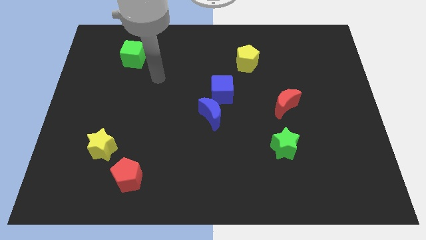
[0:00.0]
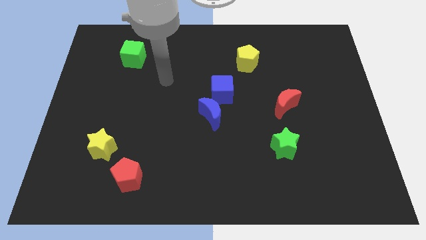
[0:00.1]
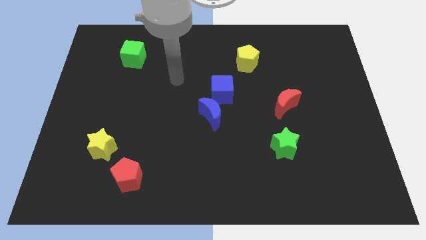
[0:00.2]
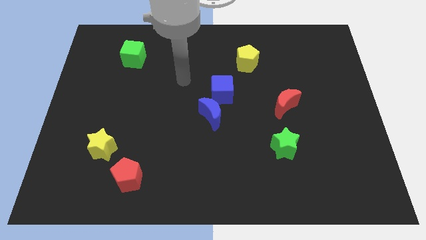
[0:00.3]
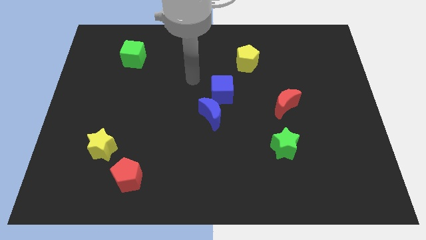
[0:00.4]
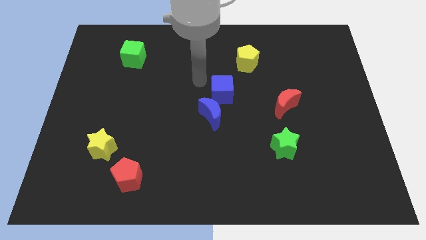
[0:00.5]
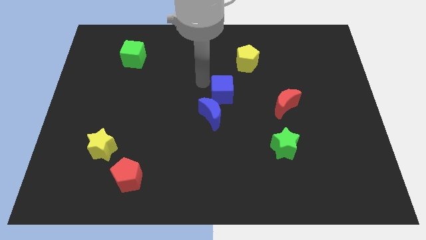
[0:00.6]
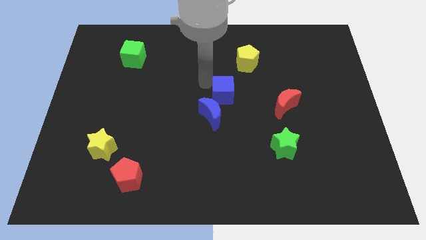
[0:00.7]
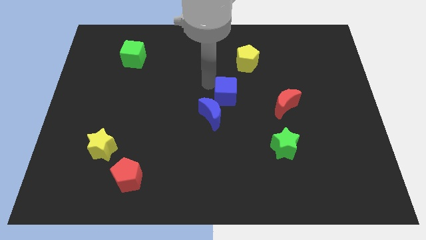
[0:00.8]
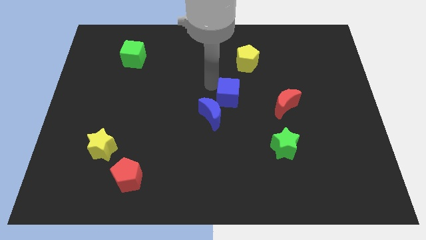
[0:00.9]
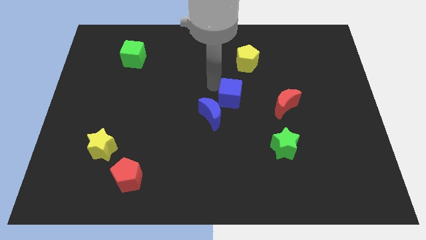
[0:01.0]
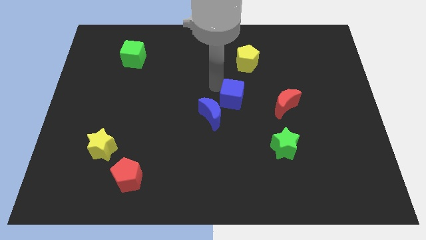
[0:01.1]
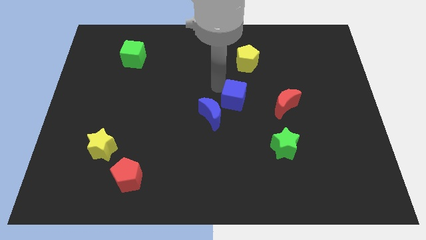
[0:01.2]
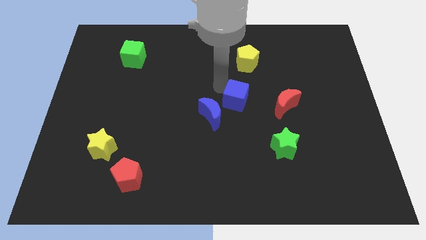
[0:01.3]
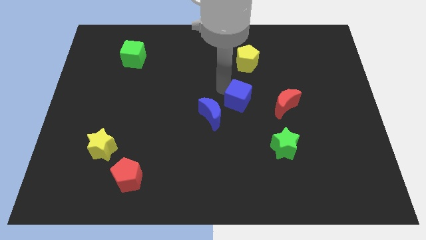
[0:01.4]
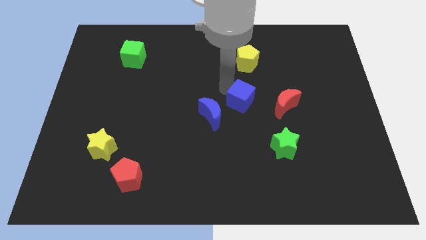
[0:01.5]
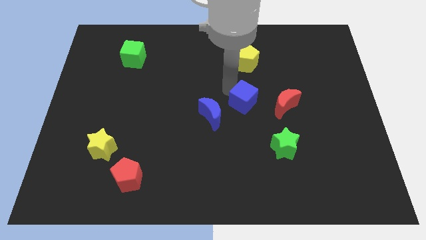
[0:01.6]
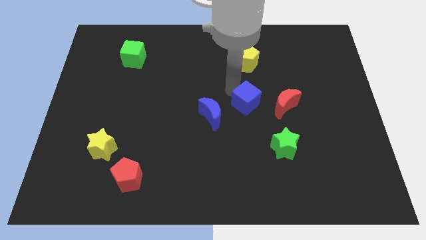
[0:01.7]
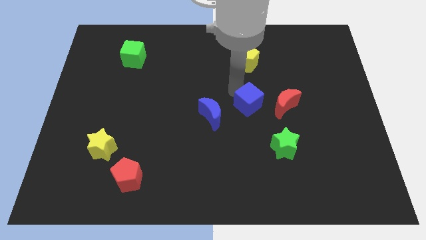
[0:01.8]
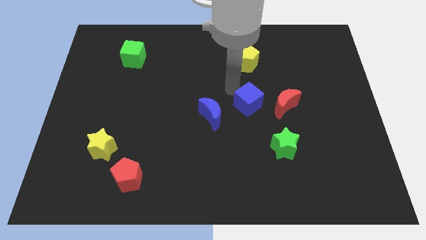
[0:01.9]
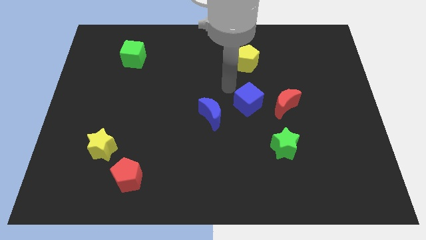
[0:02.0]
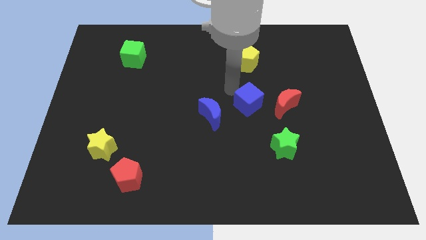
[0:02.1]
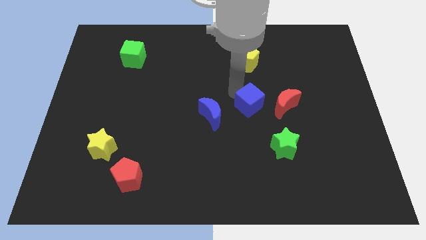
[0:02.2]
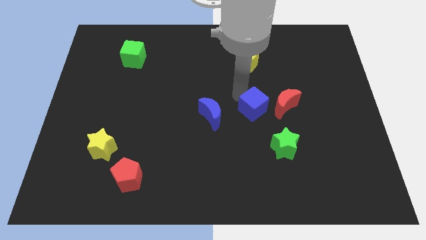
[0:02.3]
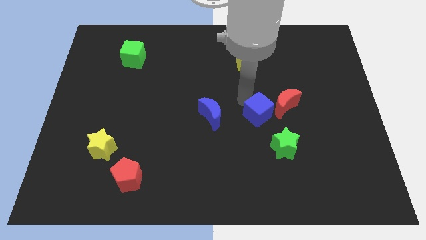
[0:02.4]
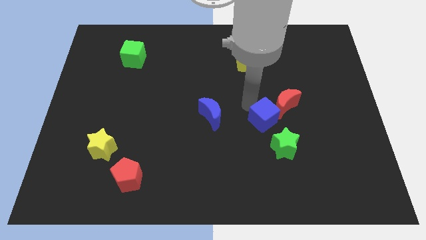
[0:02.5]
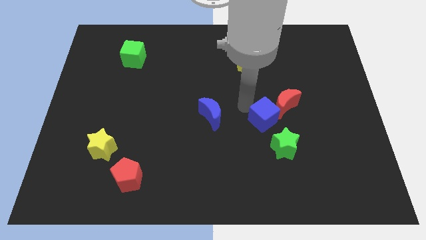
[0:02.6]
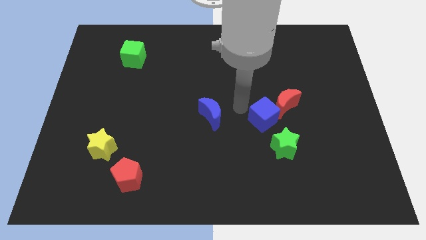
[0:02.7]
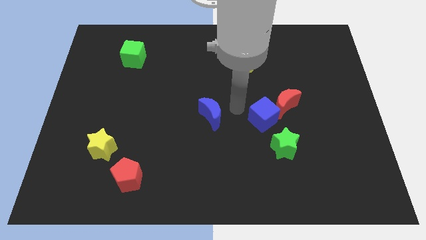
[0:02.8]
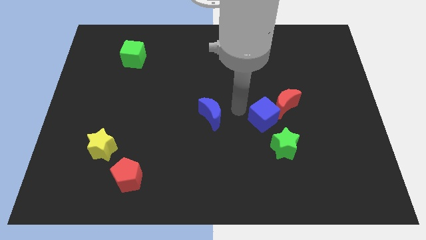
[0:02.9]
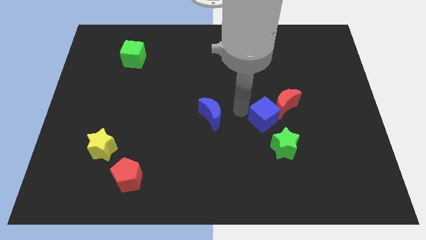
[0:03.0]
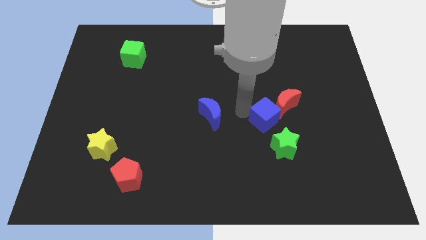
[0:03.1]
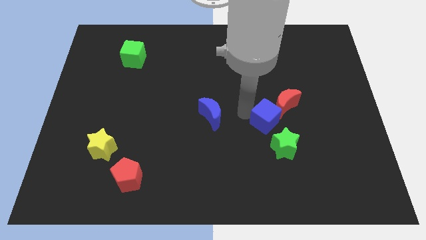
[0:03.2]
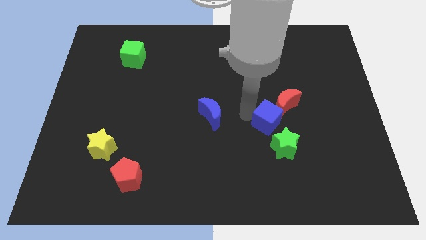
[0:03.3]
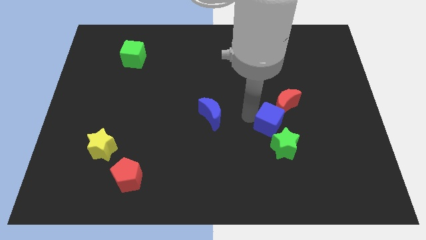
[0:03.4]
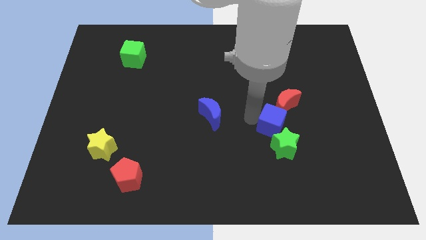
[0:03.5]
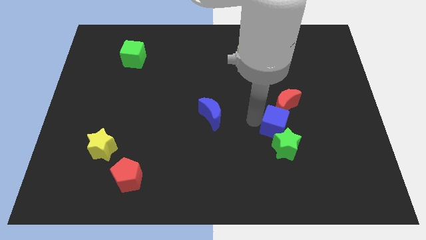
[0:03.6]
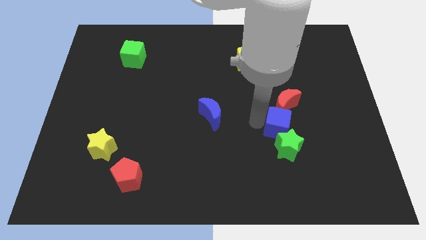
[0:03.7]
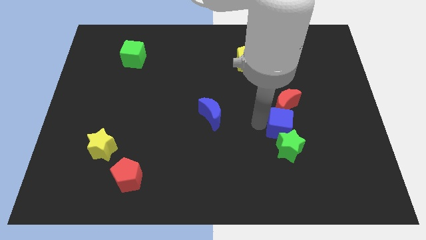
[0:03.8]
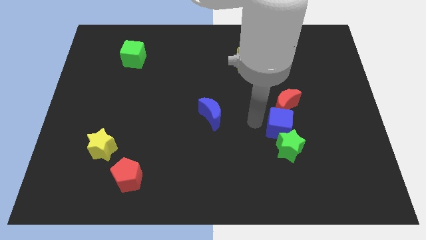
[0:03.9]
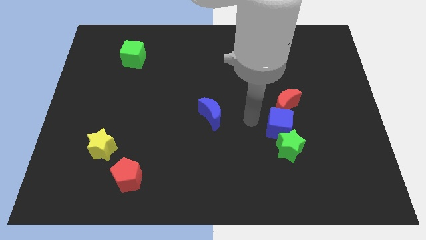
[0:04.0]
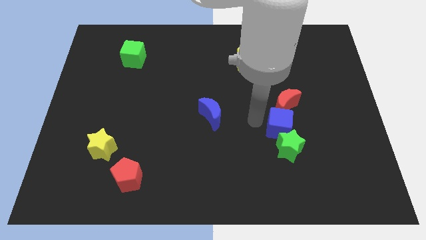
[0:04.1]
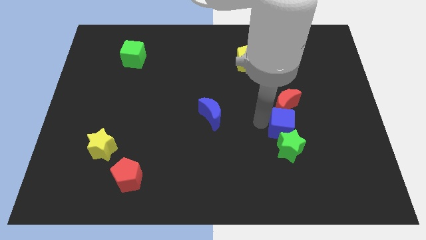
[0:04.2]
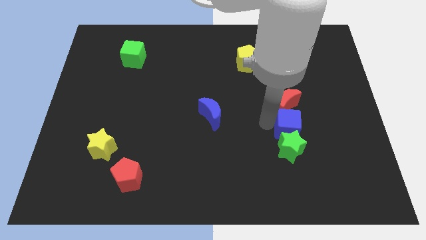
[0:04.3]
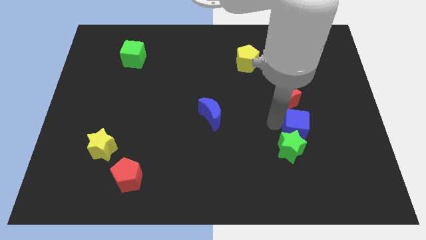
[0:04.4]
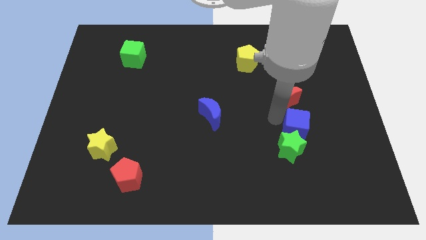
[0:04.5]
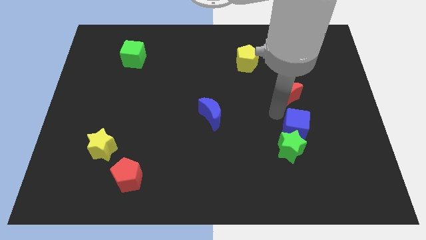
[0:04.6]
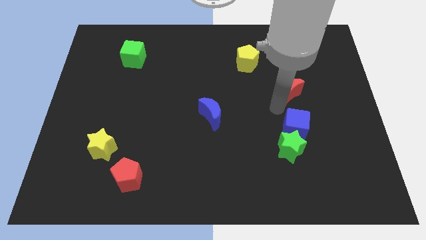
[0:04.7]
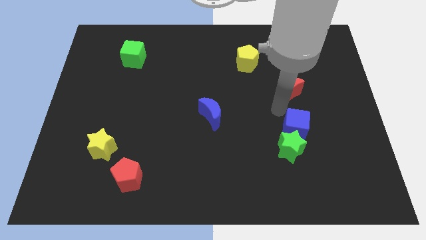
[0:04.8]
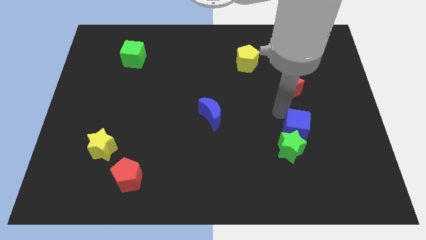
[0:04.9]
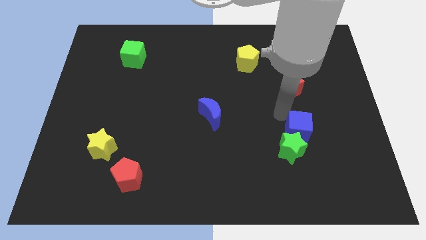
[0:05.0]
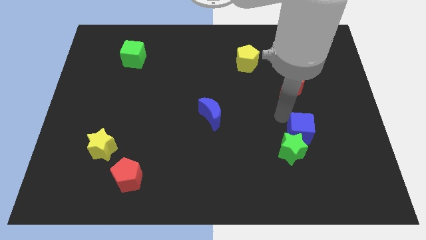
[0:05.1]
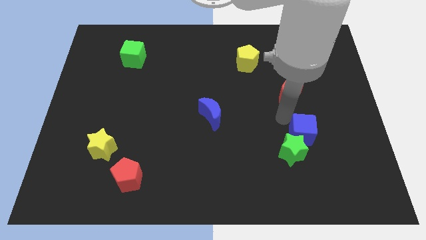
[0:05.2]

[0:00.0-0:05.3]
slide the blue cube downwards and then to the right

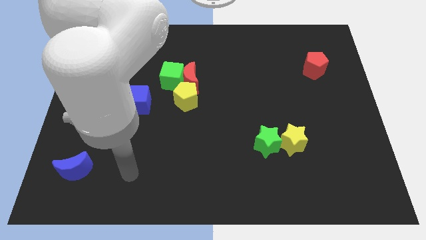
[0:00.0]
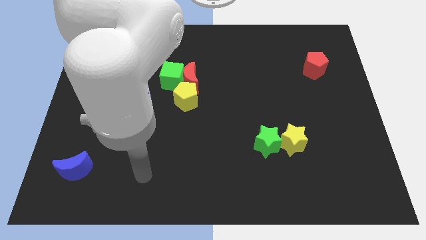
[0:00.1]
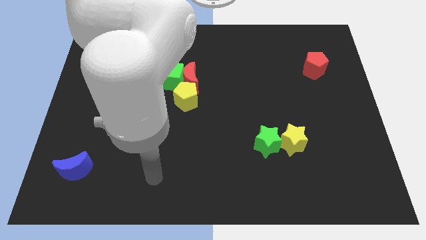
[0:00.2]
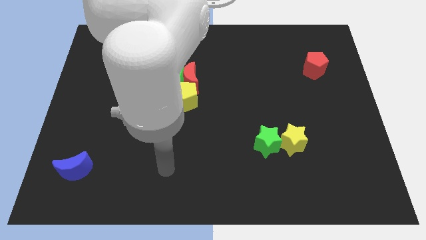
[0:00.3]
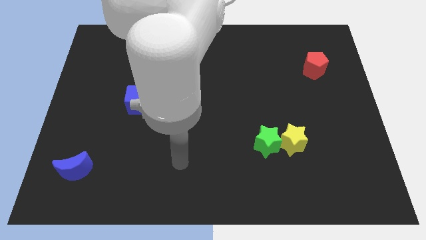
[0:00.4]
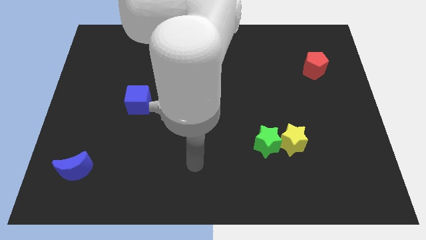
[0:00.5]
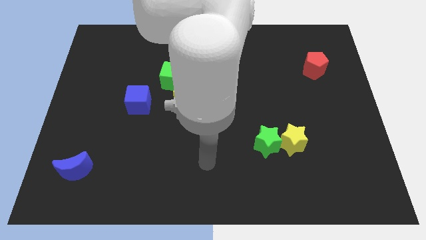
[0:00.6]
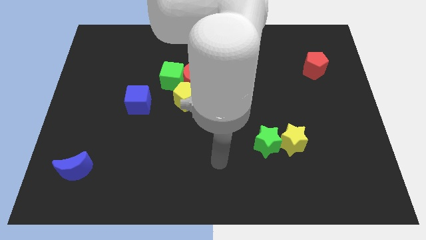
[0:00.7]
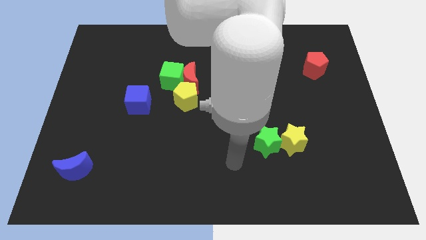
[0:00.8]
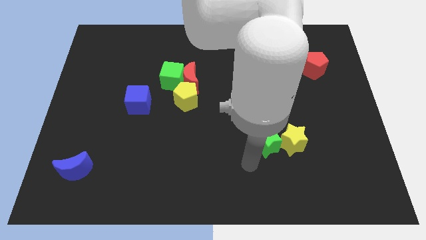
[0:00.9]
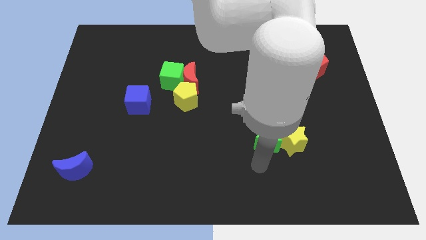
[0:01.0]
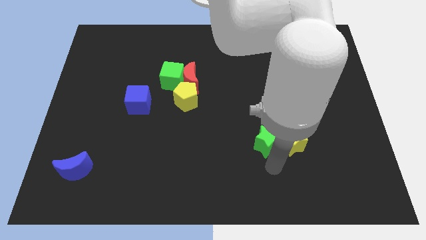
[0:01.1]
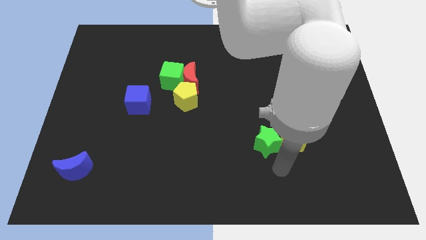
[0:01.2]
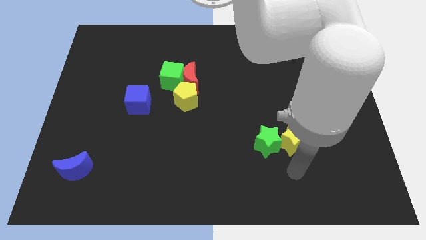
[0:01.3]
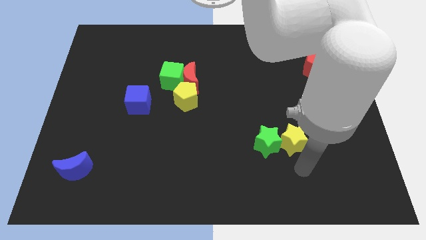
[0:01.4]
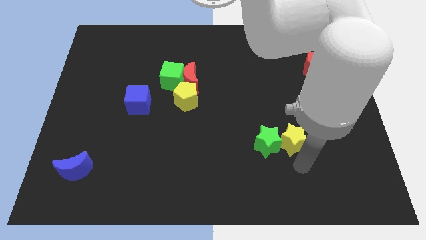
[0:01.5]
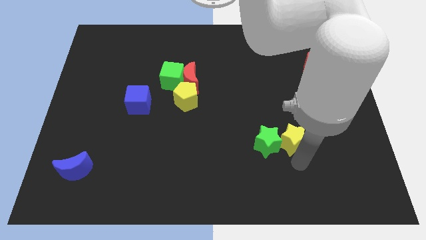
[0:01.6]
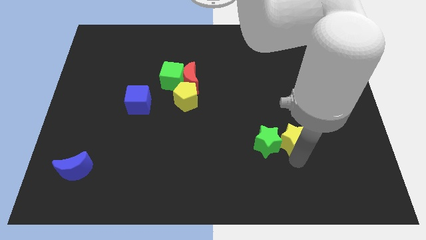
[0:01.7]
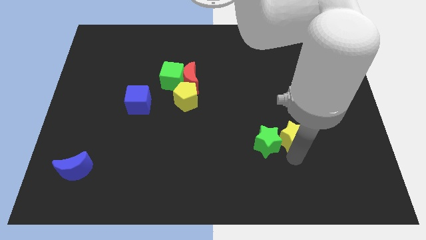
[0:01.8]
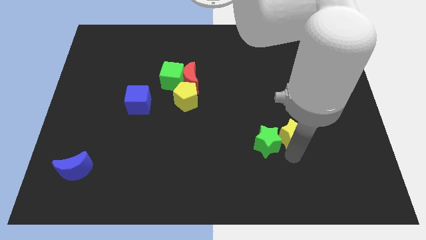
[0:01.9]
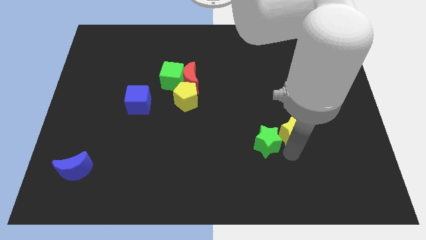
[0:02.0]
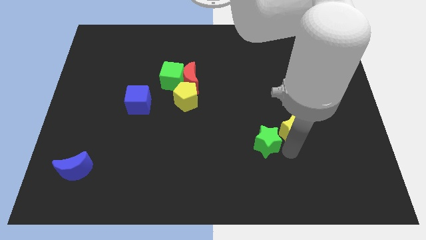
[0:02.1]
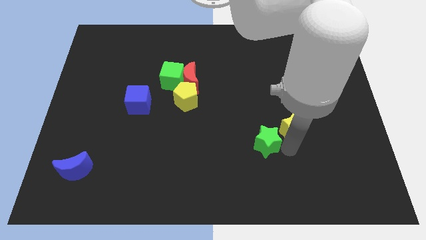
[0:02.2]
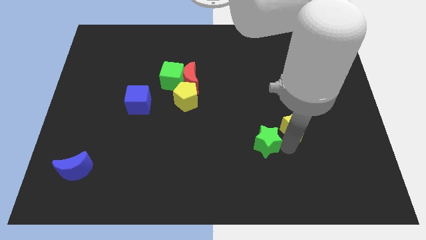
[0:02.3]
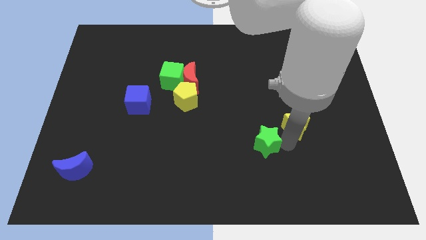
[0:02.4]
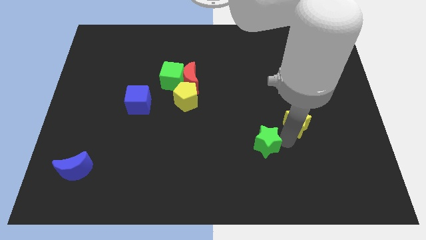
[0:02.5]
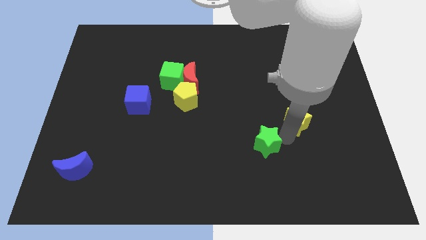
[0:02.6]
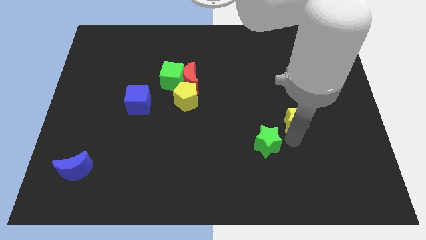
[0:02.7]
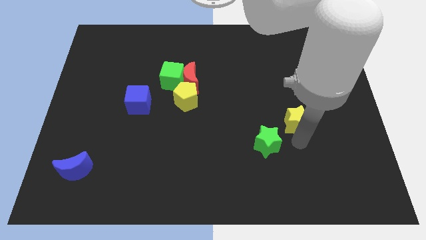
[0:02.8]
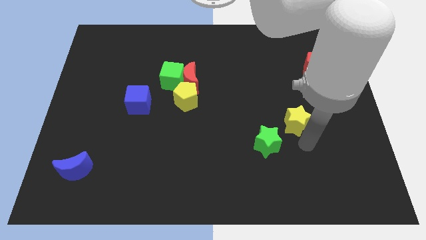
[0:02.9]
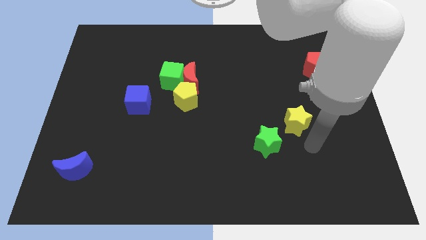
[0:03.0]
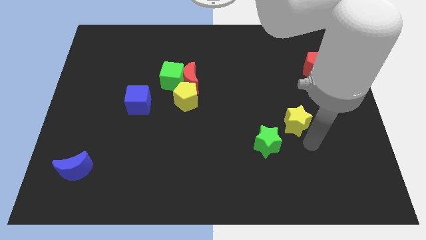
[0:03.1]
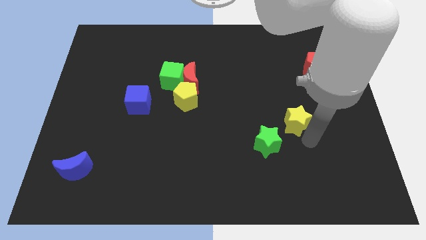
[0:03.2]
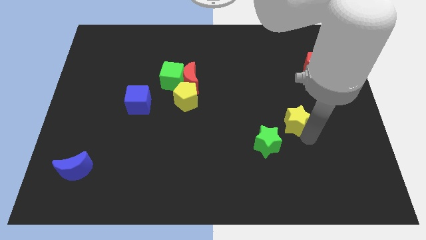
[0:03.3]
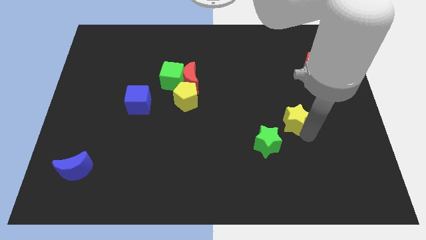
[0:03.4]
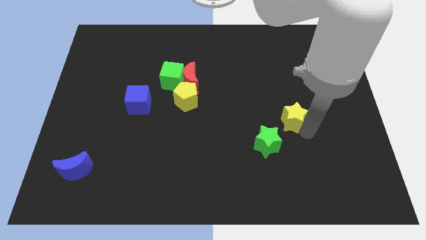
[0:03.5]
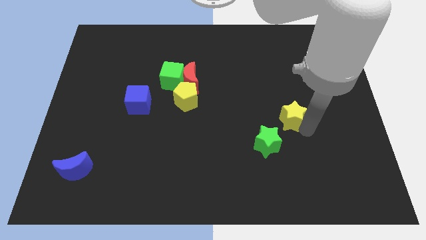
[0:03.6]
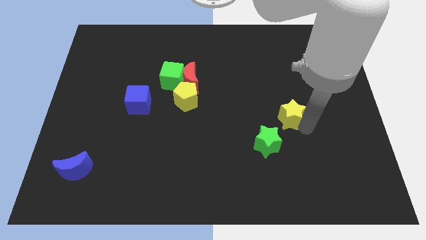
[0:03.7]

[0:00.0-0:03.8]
slightly slide the yellow star up
